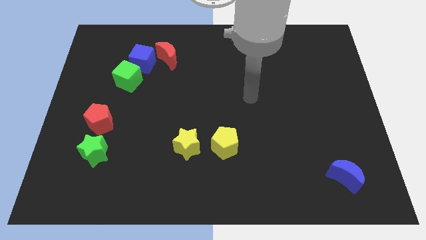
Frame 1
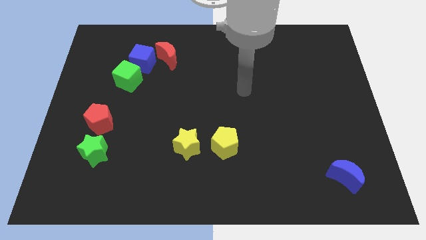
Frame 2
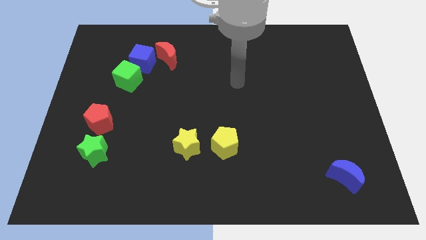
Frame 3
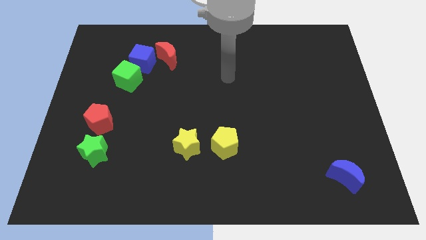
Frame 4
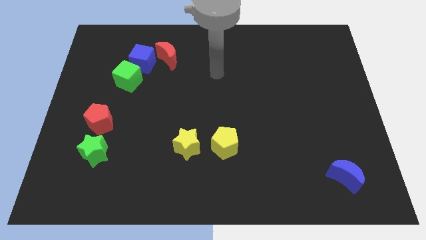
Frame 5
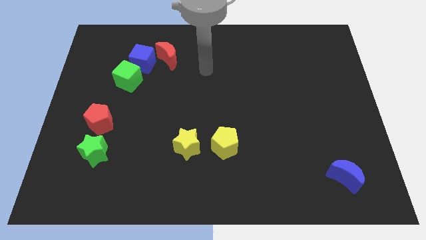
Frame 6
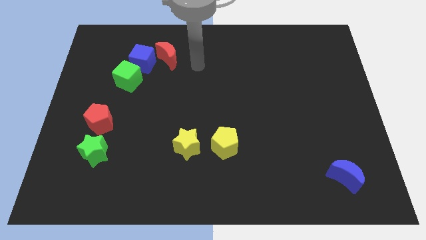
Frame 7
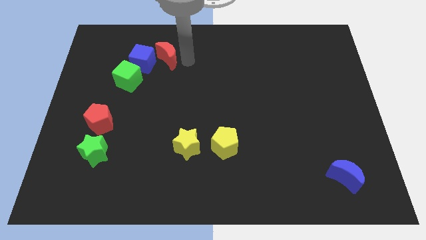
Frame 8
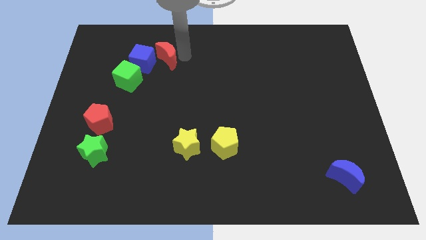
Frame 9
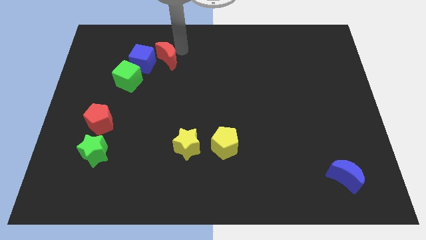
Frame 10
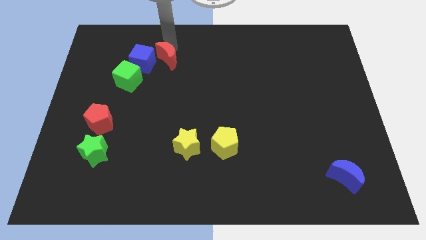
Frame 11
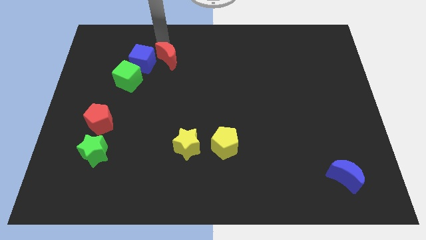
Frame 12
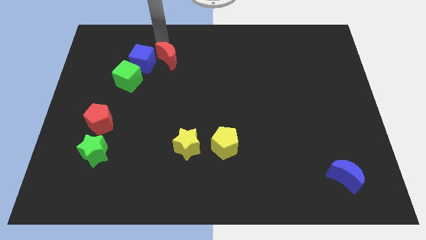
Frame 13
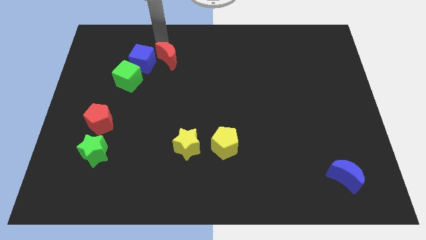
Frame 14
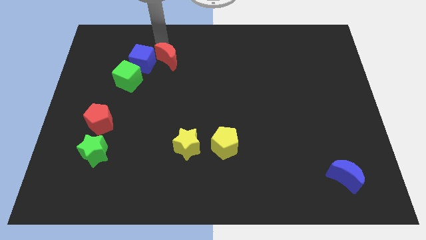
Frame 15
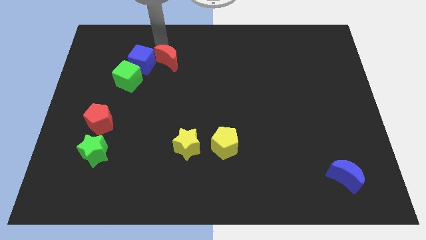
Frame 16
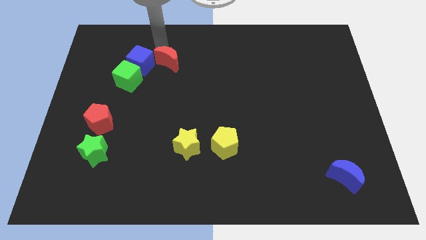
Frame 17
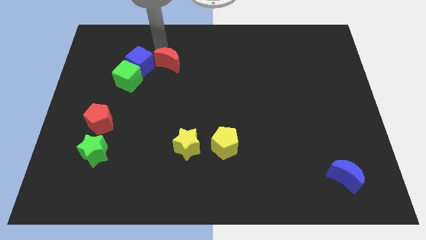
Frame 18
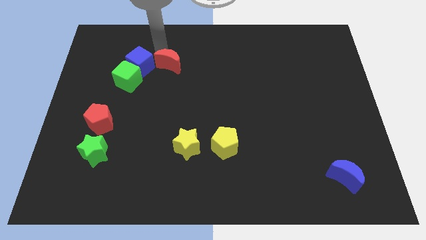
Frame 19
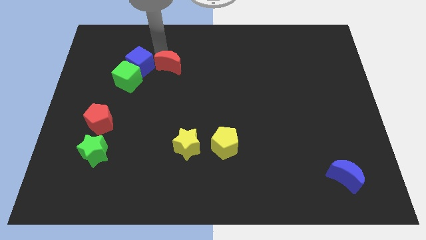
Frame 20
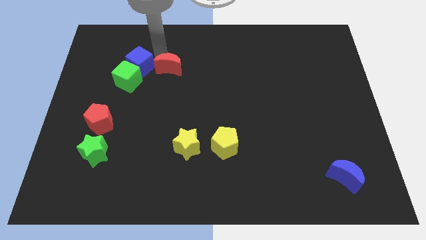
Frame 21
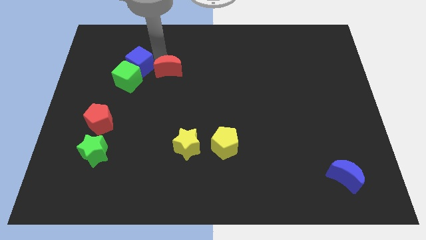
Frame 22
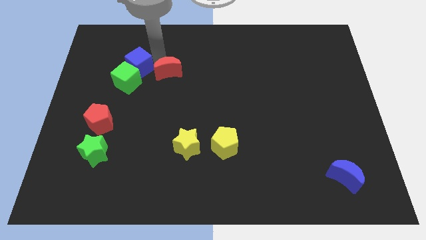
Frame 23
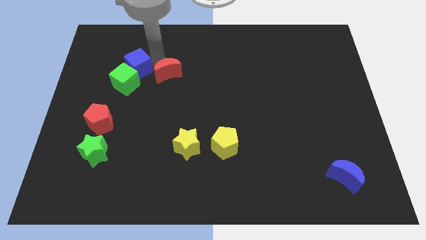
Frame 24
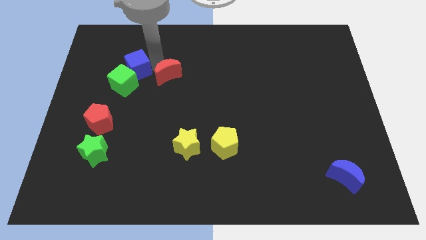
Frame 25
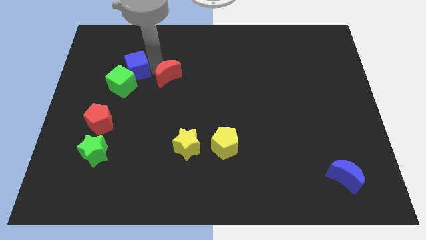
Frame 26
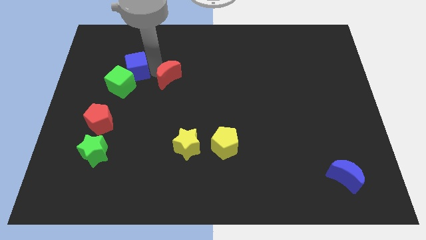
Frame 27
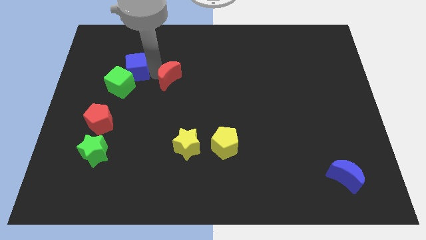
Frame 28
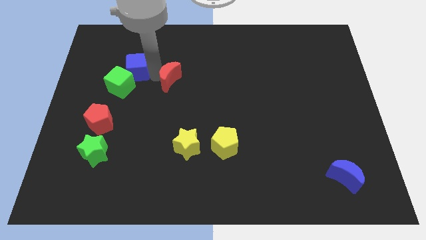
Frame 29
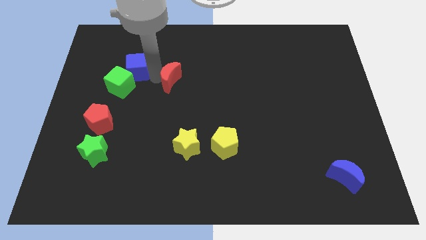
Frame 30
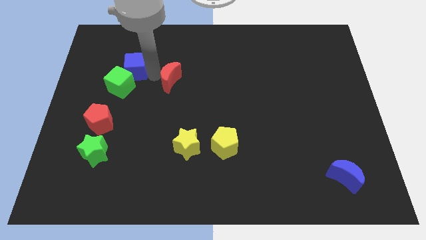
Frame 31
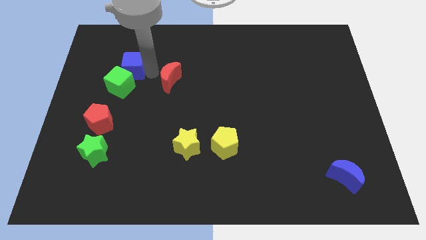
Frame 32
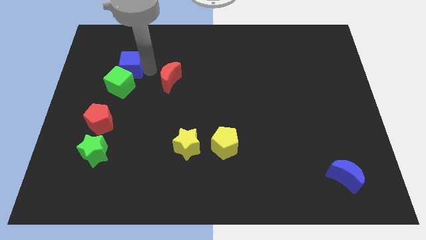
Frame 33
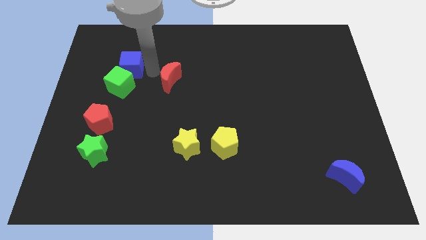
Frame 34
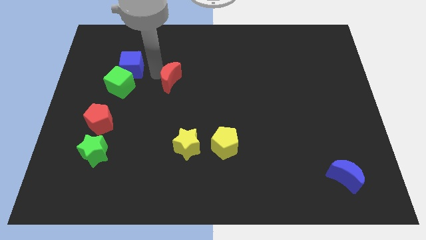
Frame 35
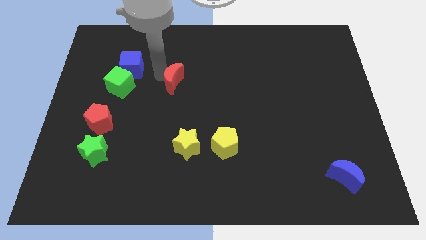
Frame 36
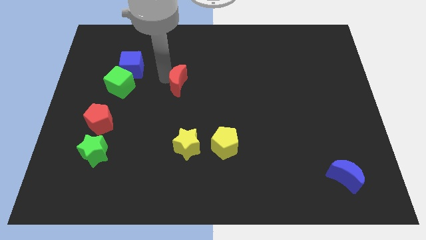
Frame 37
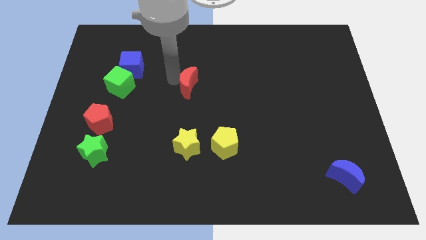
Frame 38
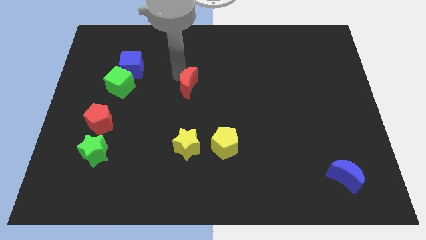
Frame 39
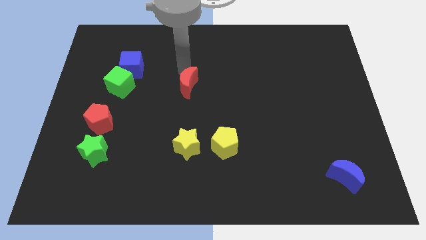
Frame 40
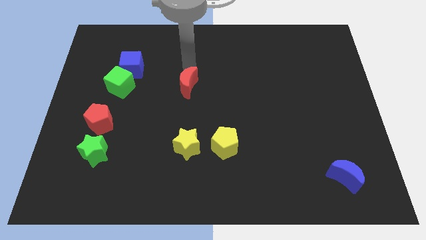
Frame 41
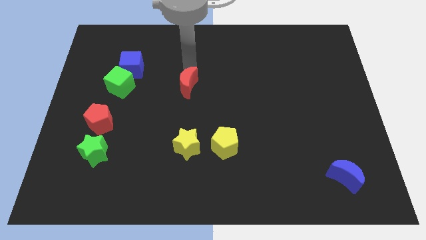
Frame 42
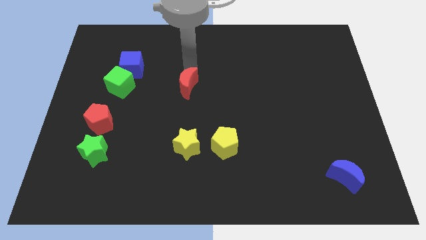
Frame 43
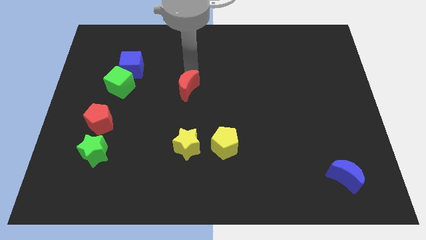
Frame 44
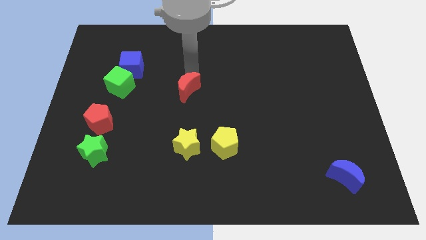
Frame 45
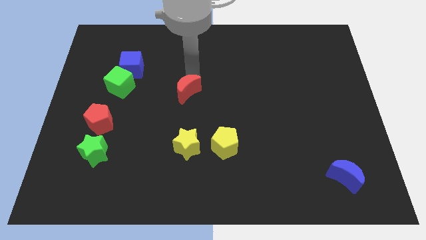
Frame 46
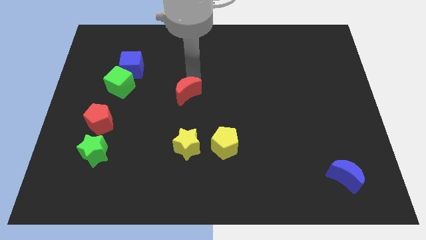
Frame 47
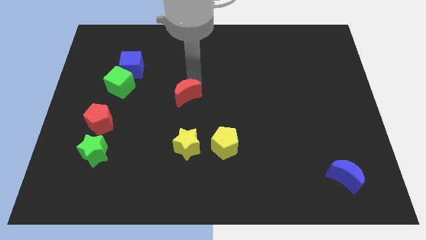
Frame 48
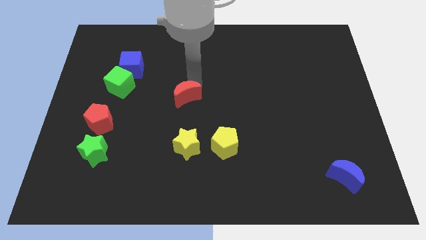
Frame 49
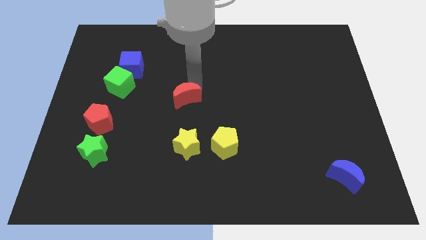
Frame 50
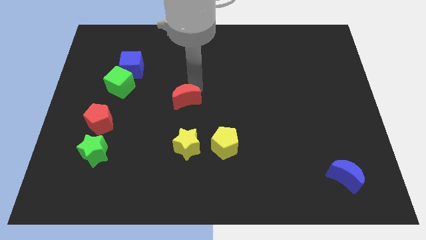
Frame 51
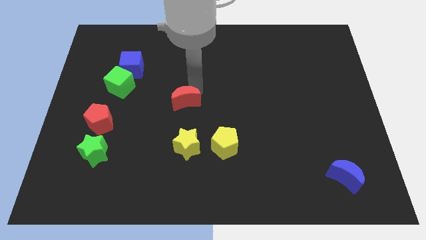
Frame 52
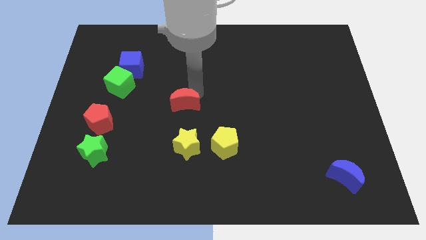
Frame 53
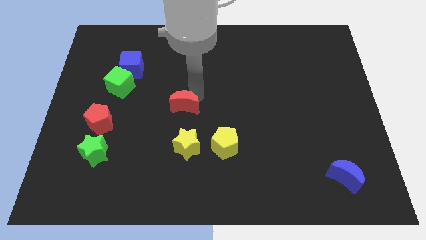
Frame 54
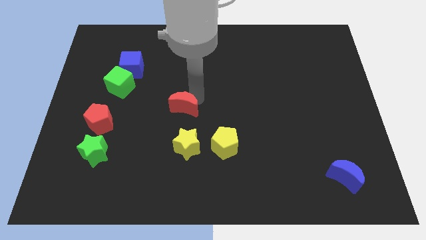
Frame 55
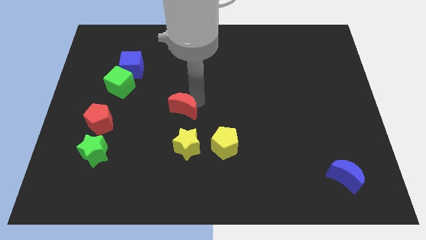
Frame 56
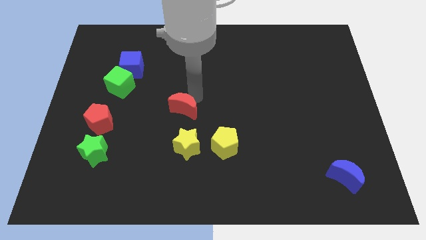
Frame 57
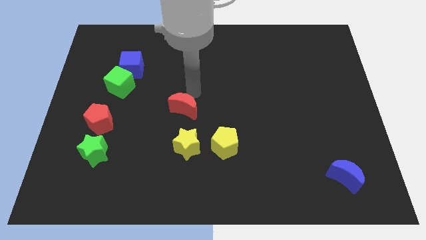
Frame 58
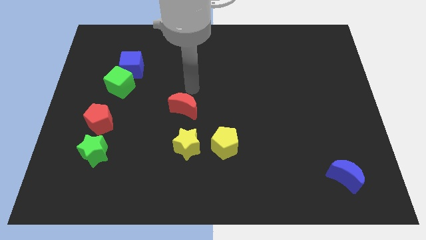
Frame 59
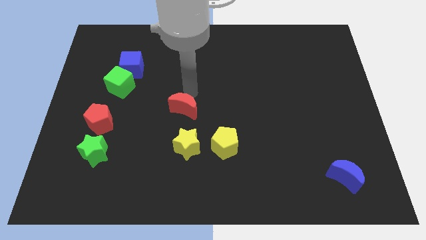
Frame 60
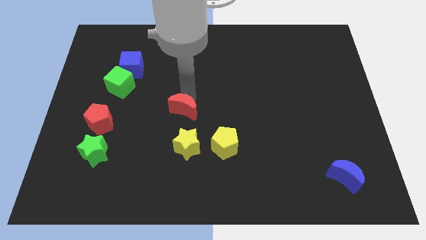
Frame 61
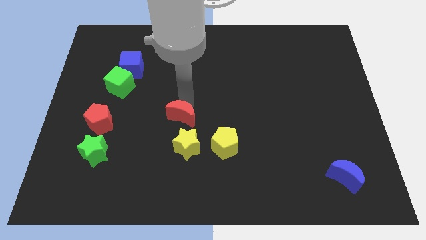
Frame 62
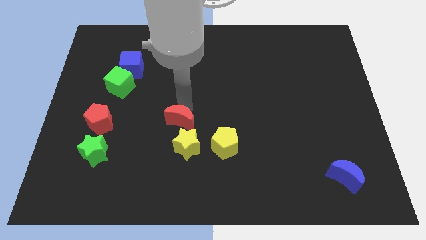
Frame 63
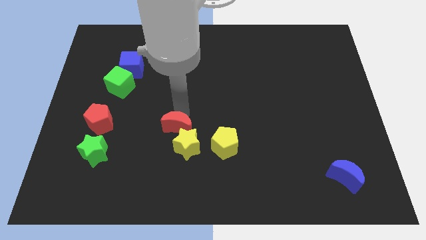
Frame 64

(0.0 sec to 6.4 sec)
push the red moon next to the yellow star
